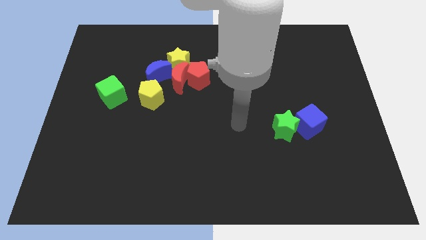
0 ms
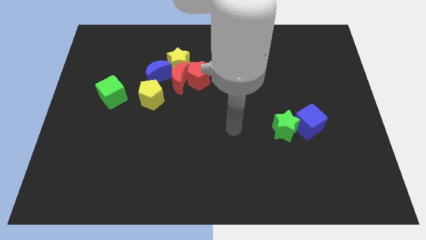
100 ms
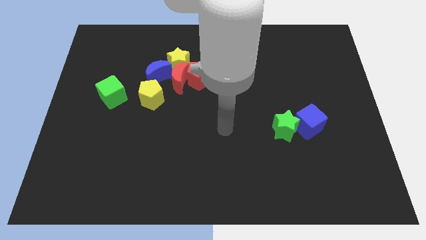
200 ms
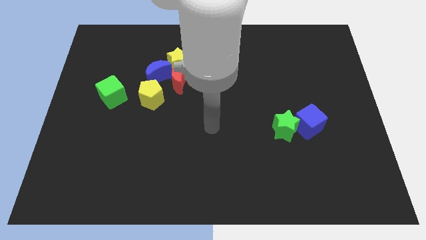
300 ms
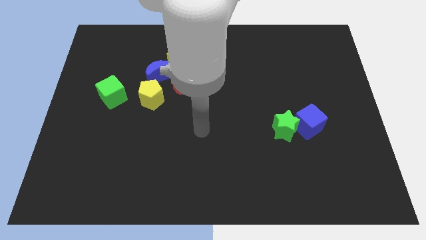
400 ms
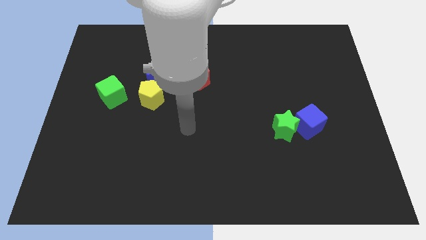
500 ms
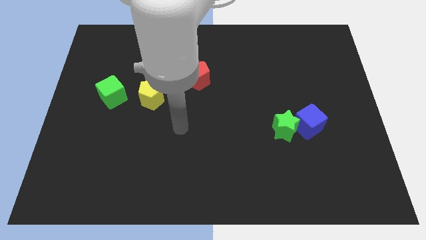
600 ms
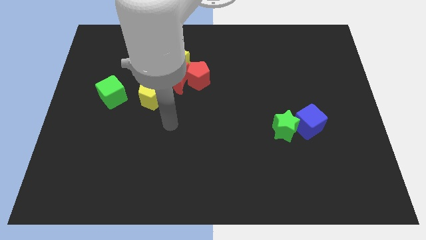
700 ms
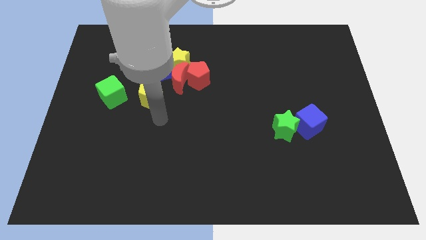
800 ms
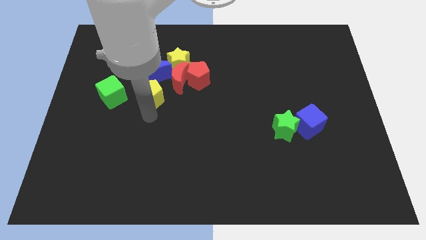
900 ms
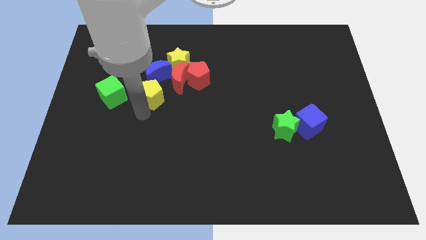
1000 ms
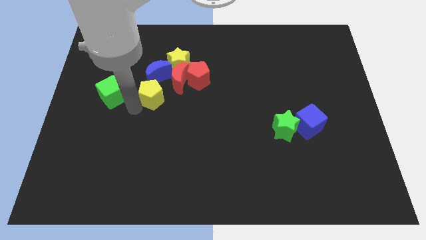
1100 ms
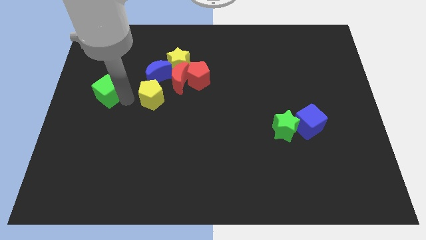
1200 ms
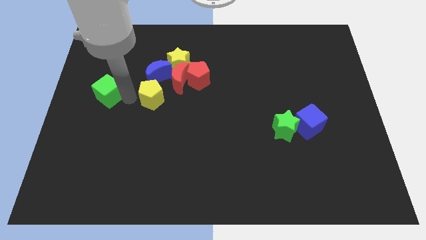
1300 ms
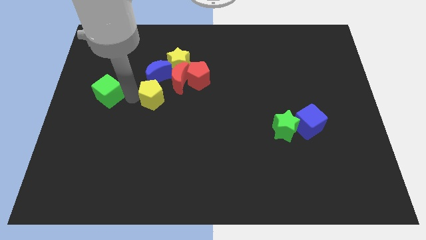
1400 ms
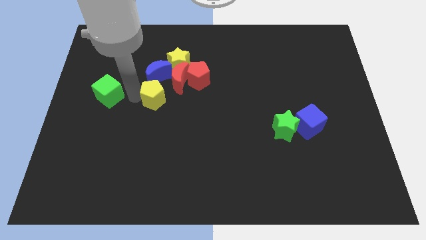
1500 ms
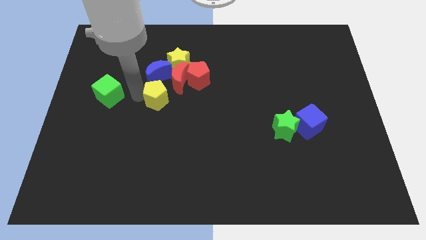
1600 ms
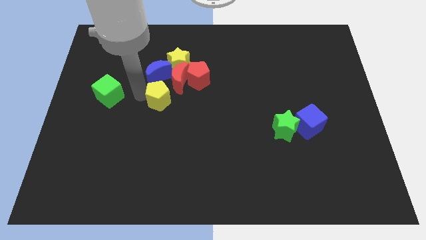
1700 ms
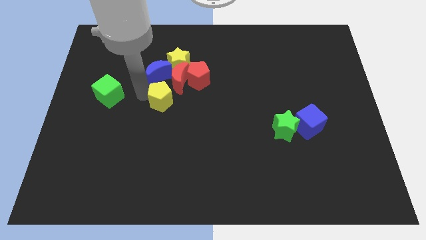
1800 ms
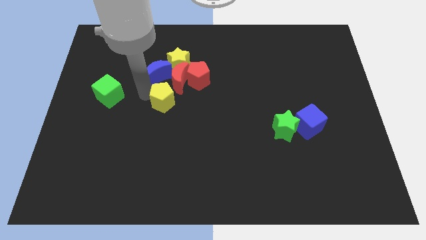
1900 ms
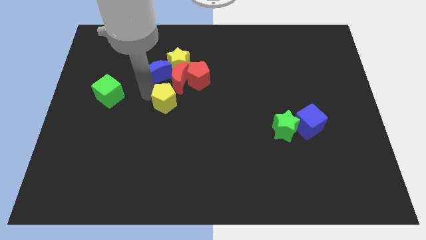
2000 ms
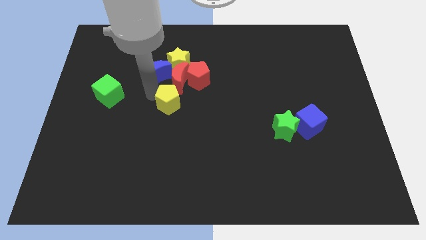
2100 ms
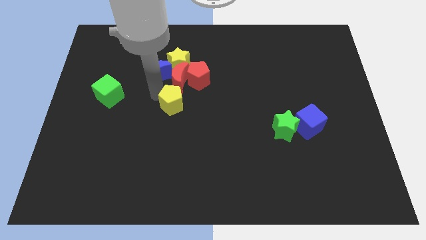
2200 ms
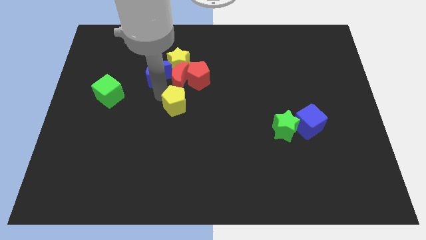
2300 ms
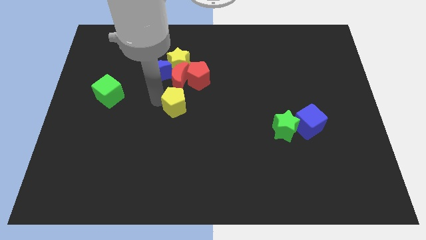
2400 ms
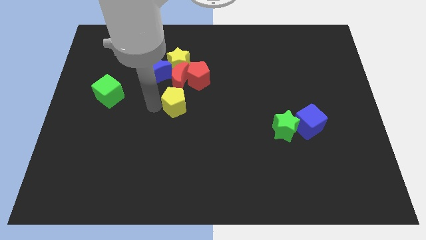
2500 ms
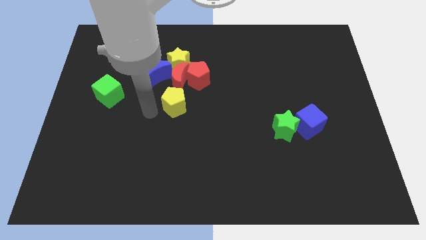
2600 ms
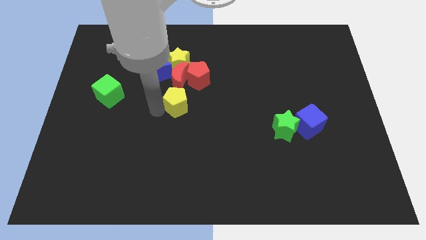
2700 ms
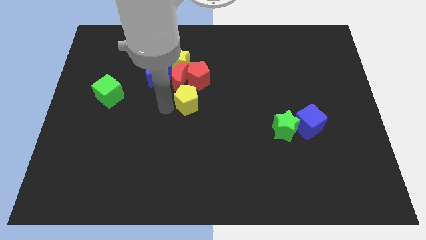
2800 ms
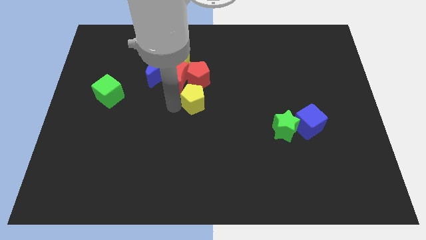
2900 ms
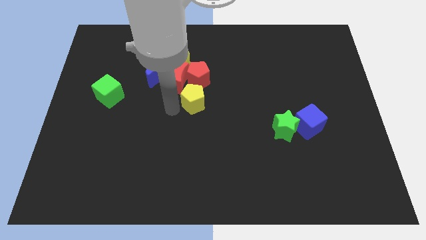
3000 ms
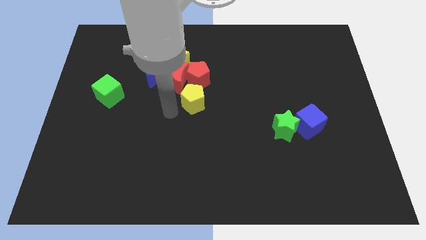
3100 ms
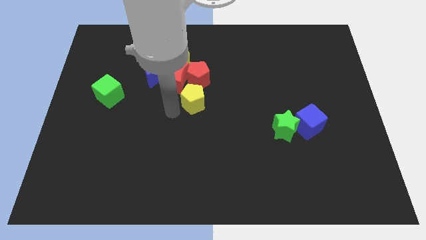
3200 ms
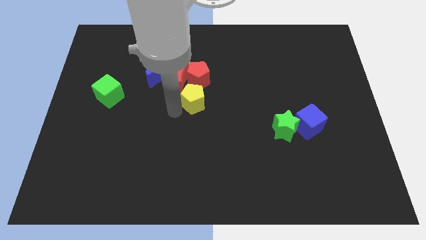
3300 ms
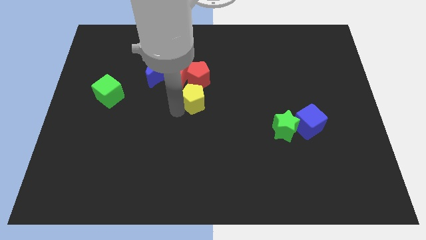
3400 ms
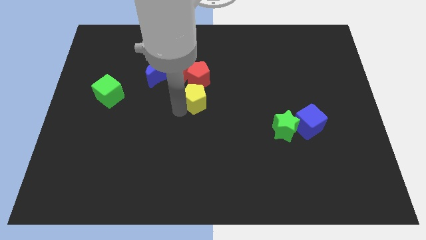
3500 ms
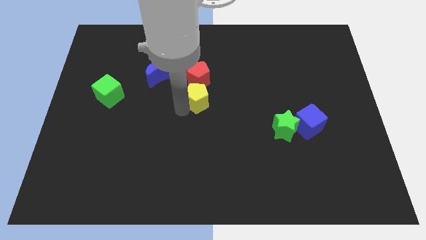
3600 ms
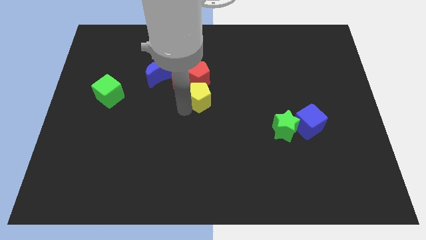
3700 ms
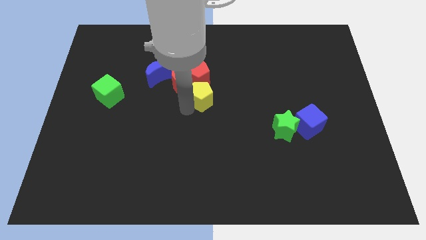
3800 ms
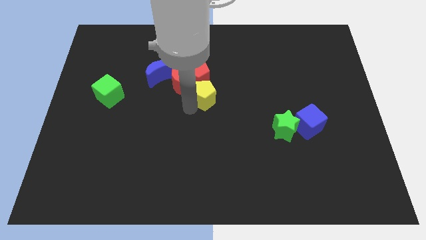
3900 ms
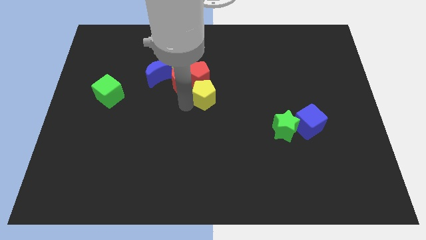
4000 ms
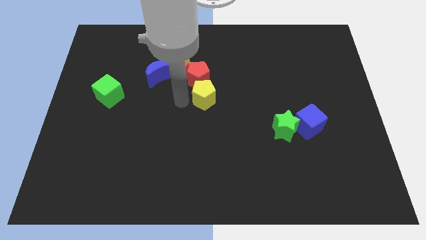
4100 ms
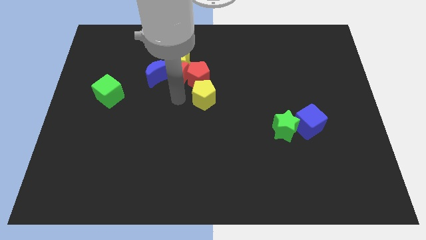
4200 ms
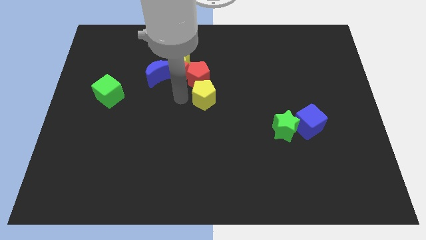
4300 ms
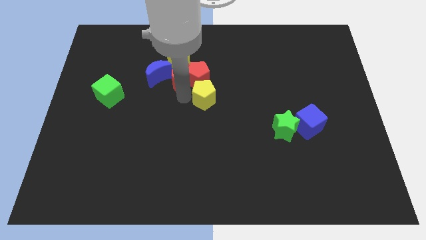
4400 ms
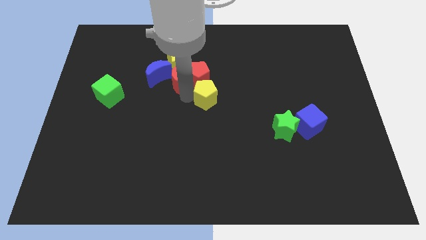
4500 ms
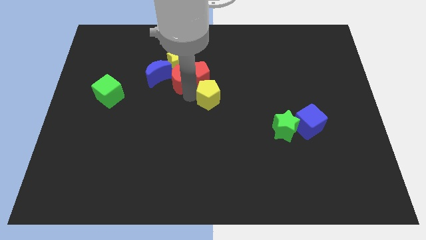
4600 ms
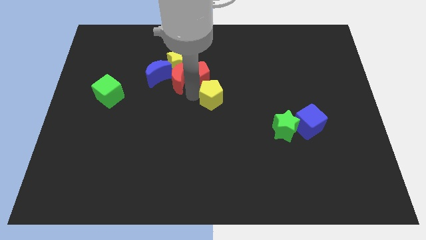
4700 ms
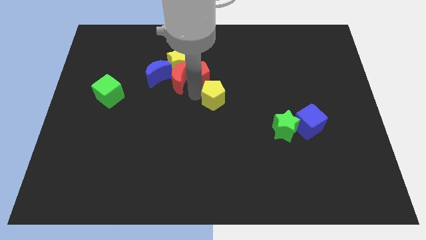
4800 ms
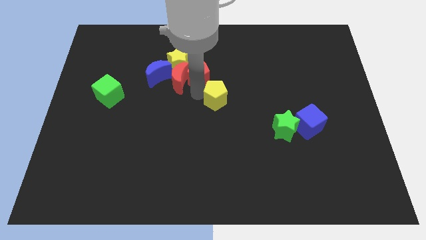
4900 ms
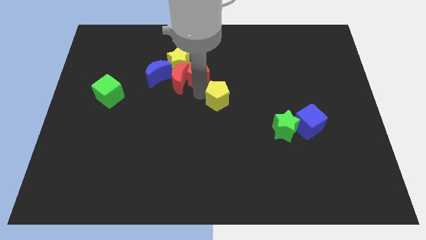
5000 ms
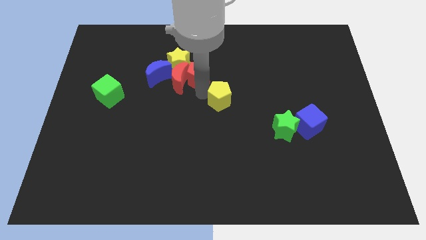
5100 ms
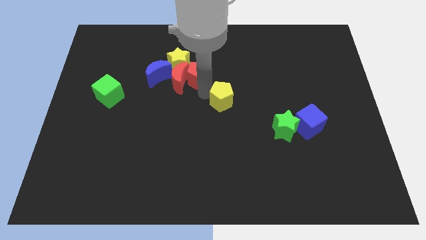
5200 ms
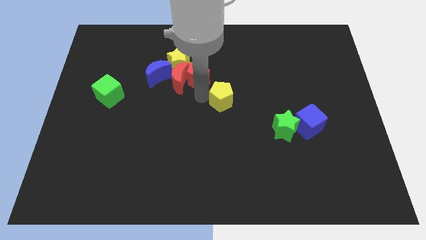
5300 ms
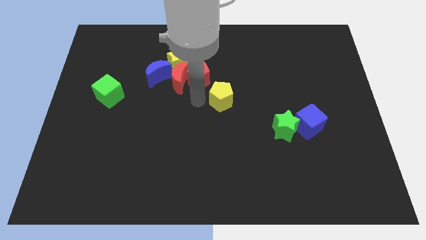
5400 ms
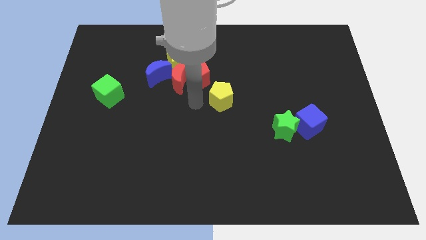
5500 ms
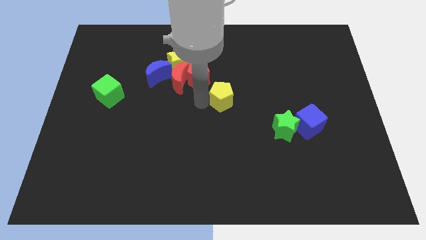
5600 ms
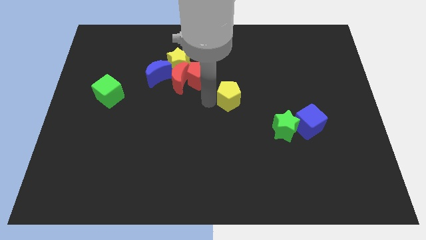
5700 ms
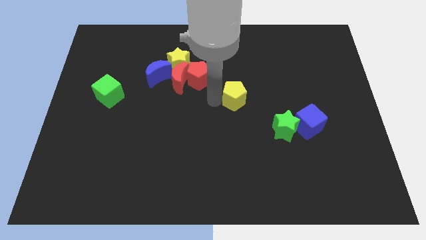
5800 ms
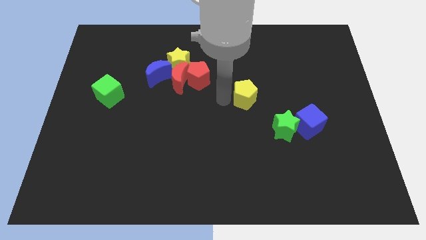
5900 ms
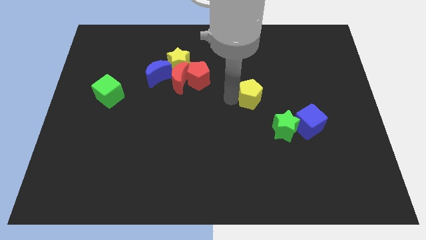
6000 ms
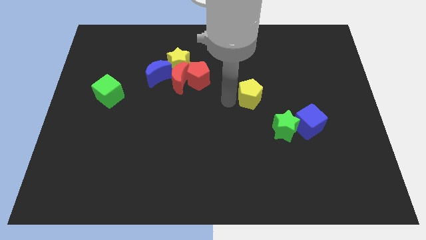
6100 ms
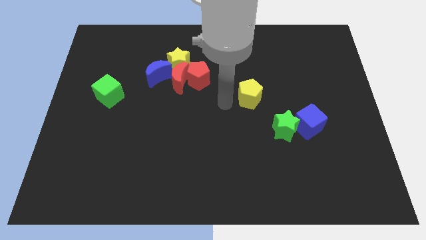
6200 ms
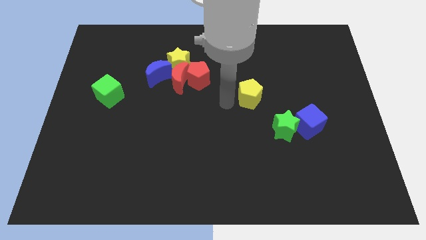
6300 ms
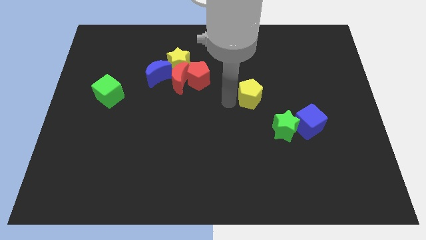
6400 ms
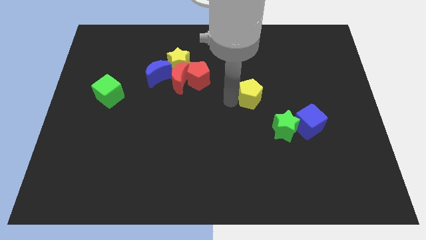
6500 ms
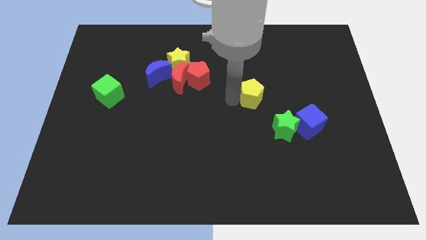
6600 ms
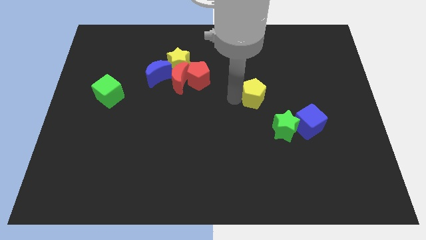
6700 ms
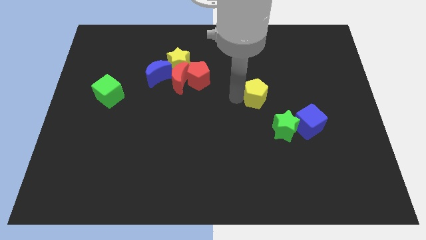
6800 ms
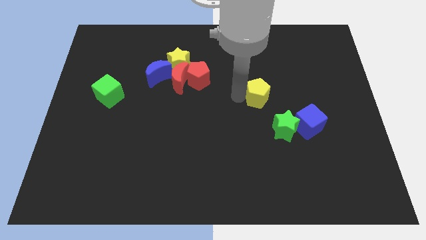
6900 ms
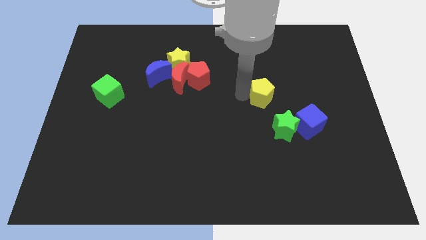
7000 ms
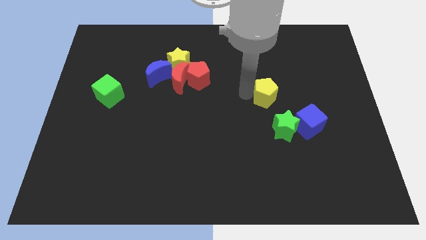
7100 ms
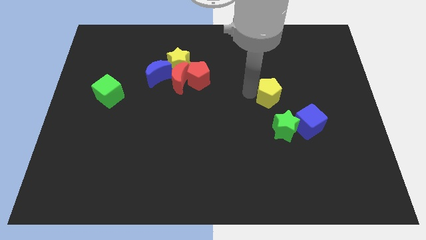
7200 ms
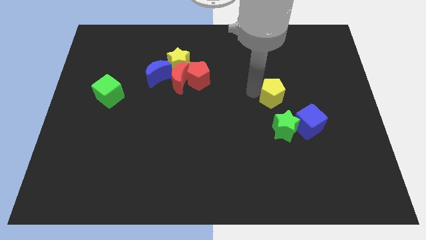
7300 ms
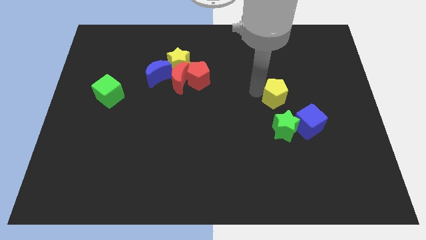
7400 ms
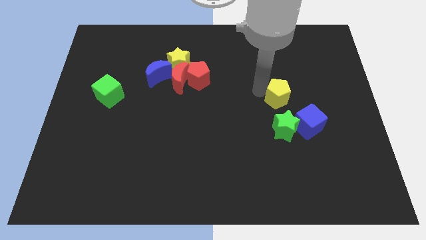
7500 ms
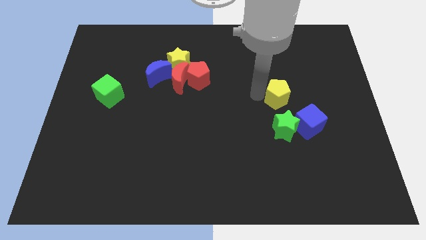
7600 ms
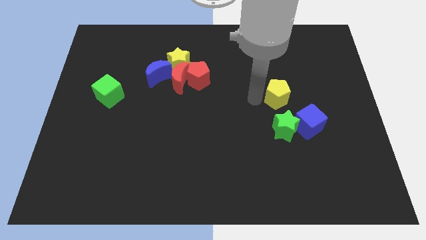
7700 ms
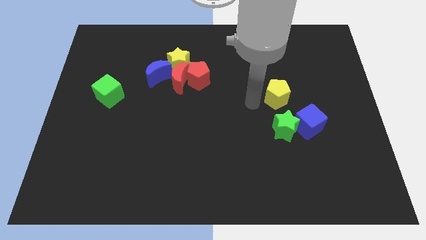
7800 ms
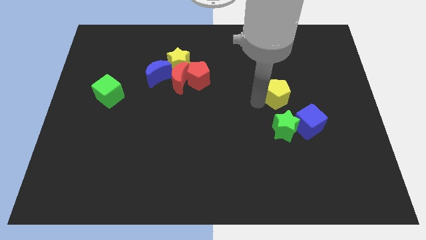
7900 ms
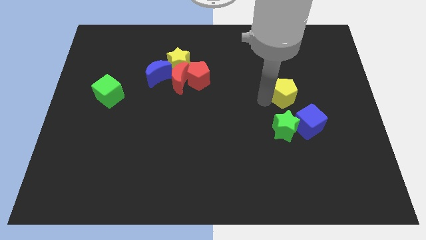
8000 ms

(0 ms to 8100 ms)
slide the yellow pentagon to the top of the blue cube
